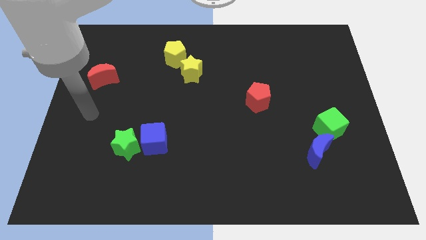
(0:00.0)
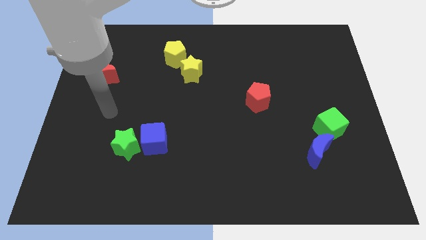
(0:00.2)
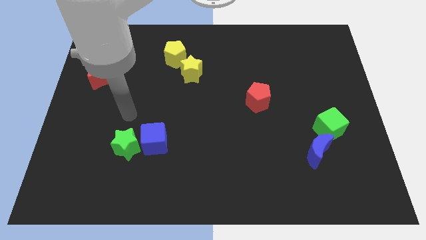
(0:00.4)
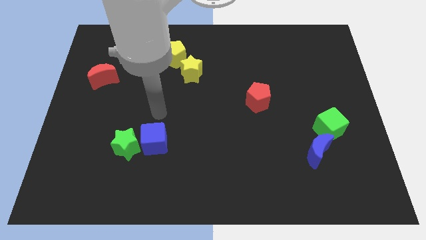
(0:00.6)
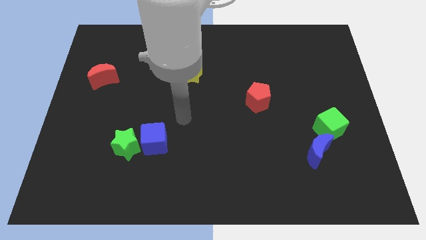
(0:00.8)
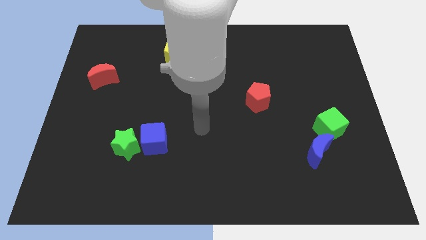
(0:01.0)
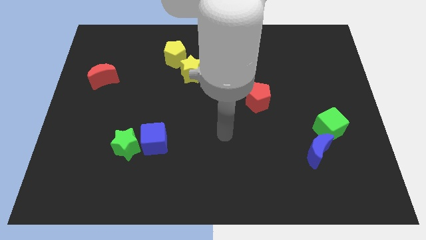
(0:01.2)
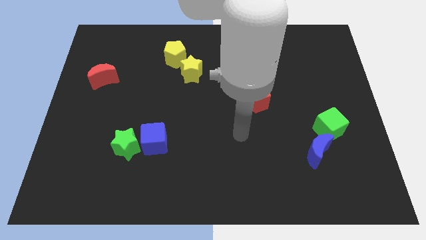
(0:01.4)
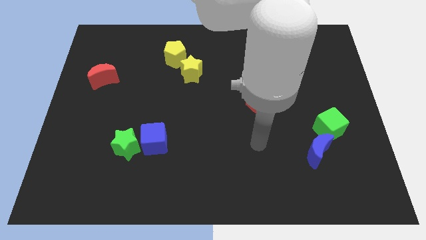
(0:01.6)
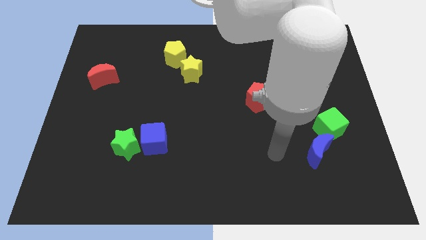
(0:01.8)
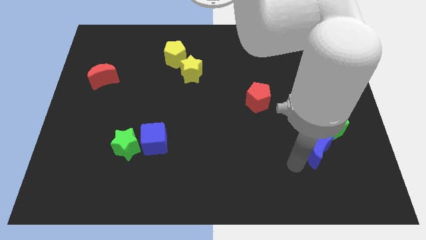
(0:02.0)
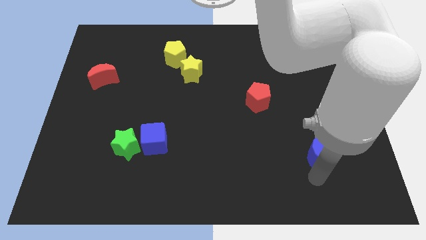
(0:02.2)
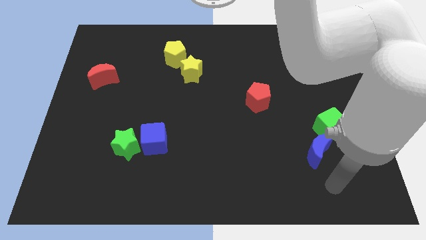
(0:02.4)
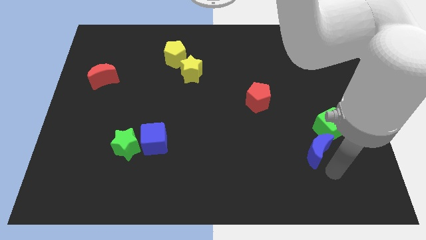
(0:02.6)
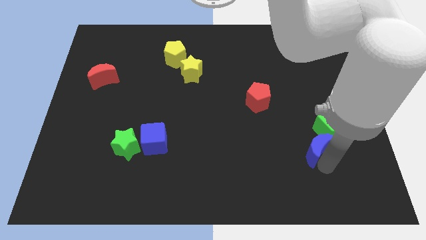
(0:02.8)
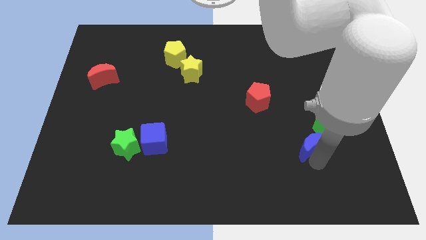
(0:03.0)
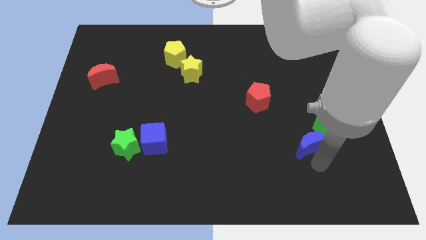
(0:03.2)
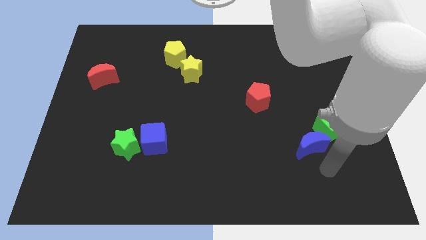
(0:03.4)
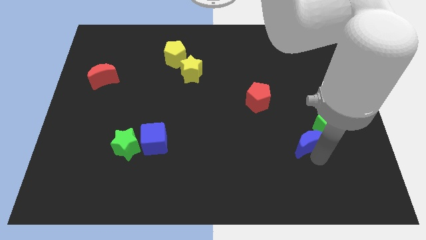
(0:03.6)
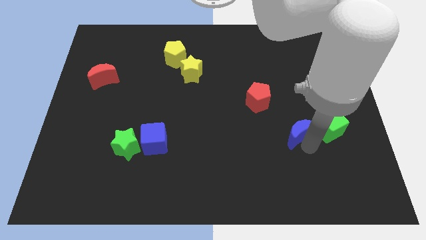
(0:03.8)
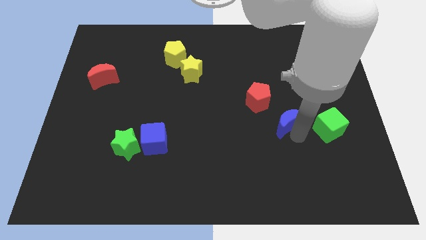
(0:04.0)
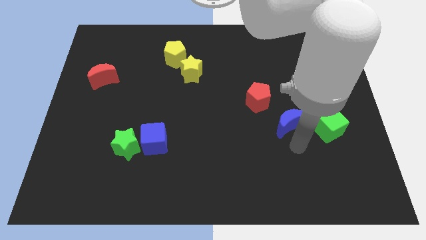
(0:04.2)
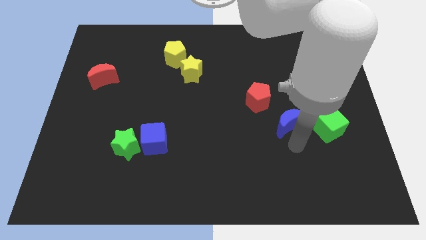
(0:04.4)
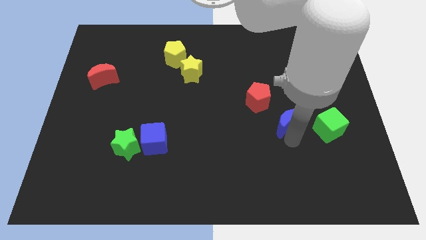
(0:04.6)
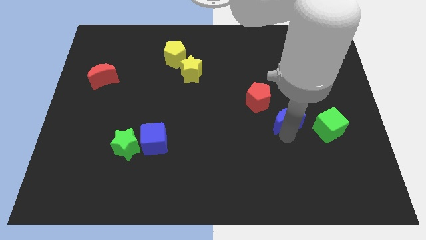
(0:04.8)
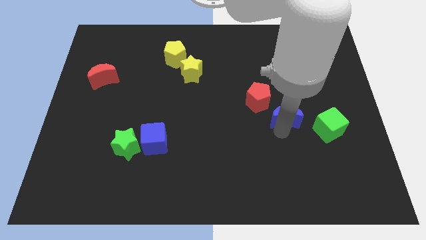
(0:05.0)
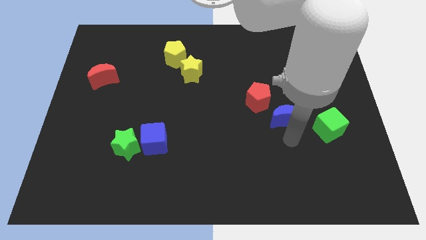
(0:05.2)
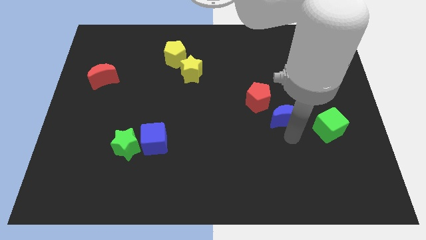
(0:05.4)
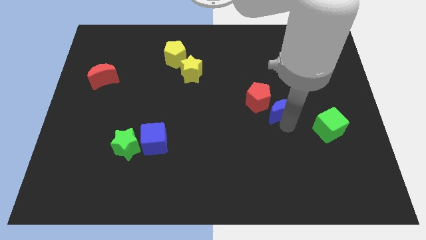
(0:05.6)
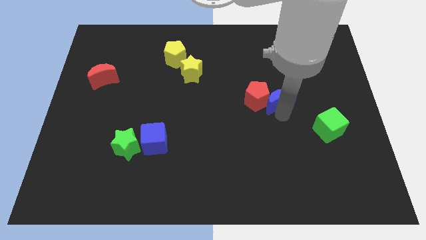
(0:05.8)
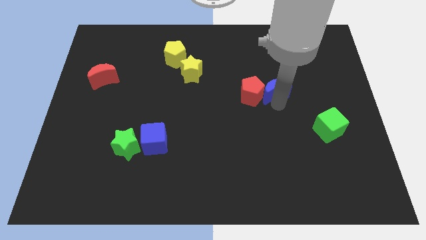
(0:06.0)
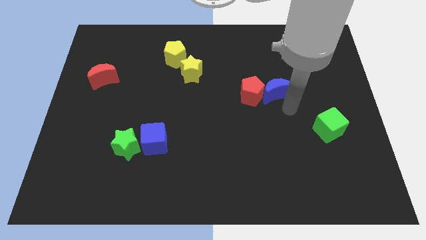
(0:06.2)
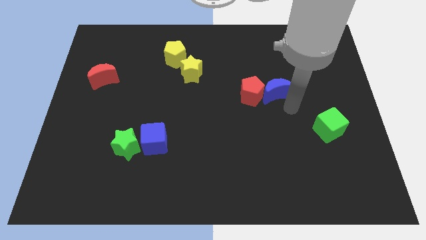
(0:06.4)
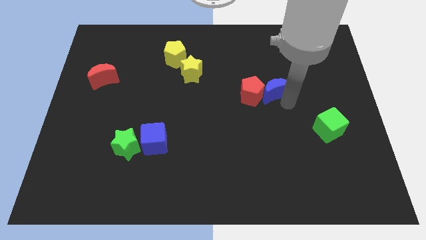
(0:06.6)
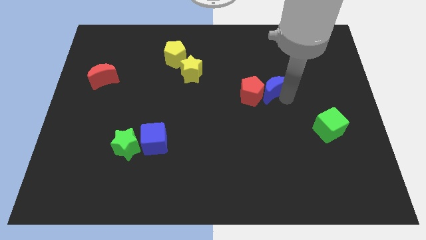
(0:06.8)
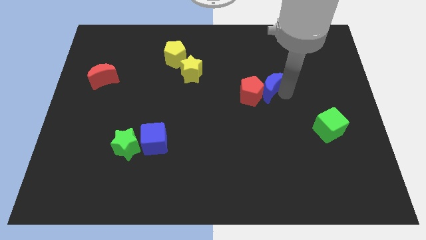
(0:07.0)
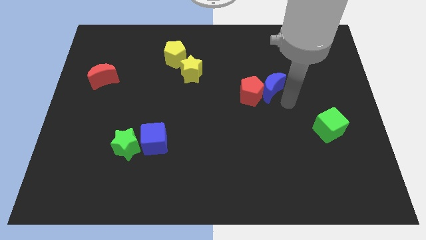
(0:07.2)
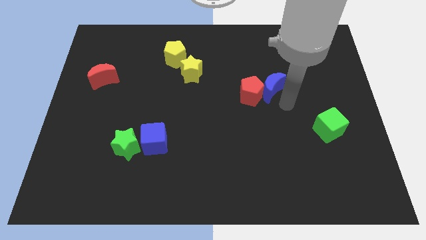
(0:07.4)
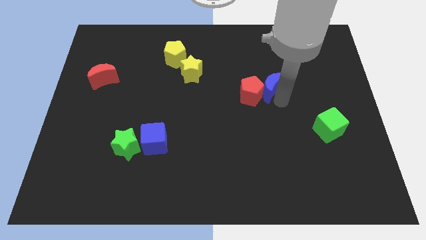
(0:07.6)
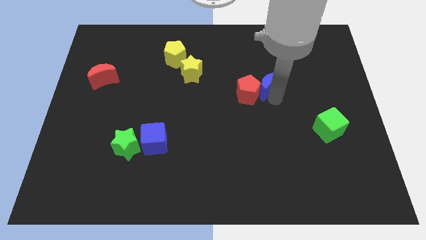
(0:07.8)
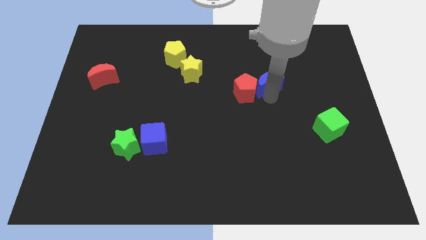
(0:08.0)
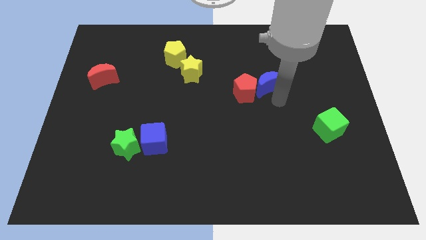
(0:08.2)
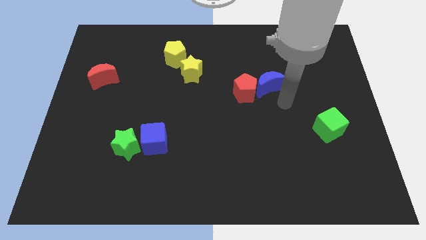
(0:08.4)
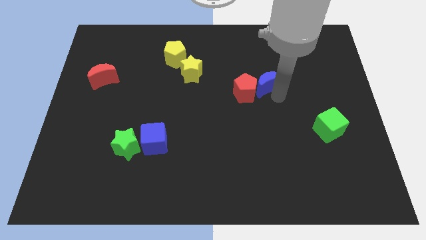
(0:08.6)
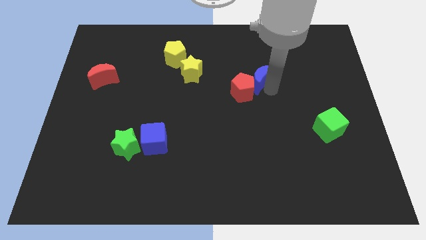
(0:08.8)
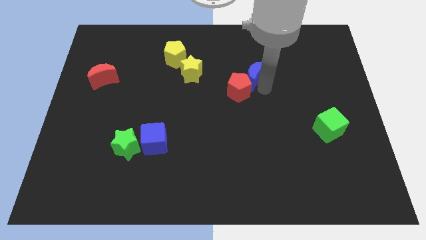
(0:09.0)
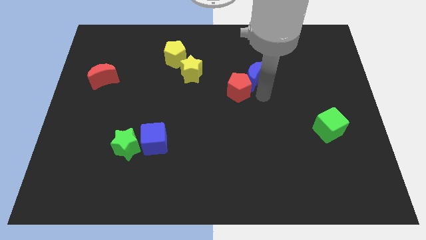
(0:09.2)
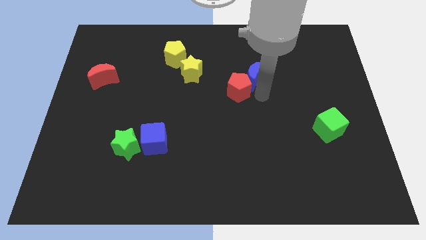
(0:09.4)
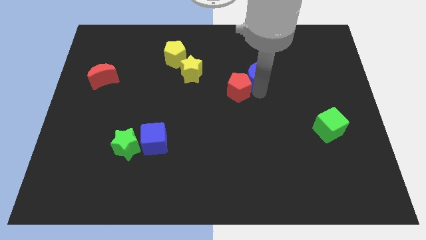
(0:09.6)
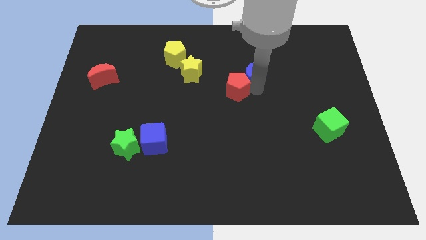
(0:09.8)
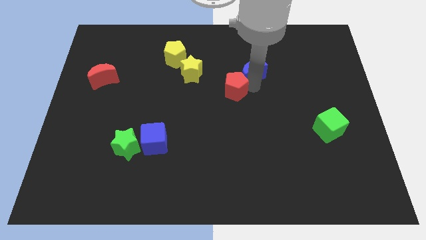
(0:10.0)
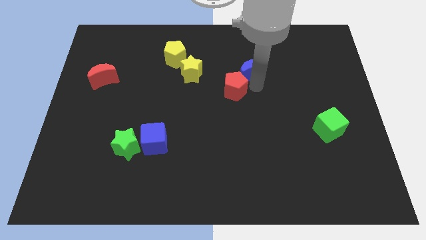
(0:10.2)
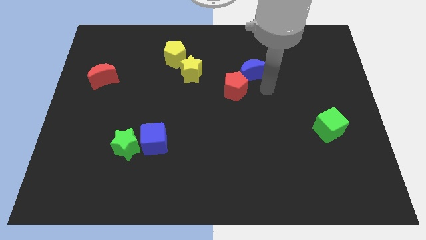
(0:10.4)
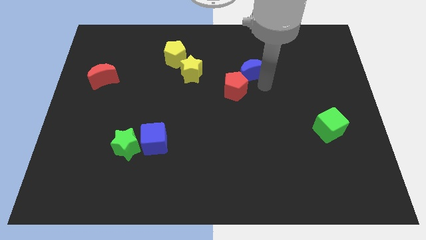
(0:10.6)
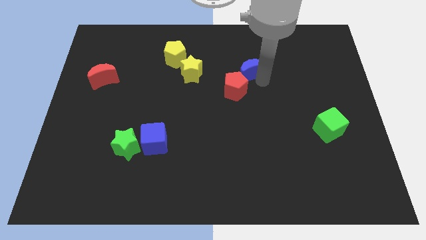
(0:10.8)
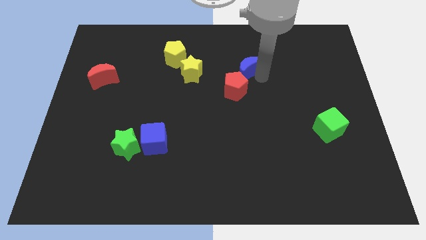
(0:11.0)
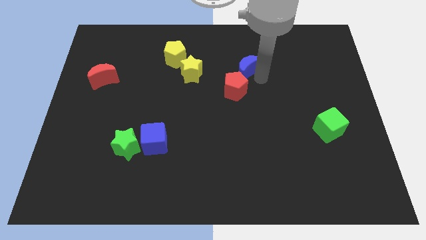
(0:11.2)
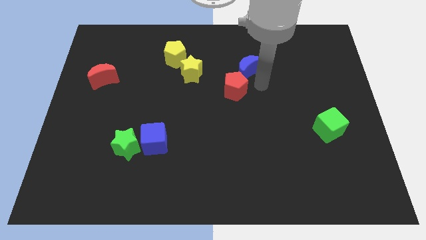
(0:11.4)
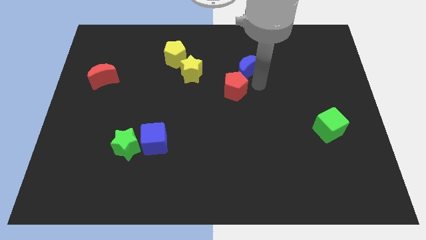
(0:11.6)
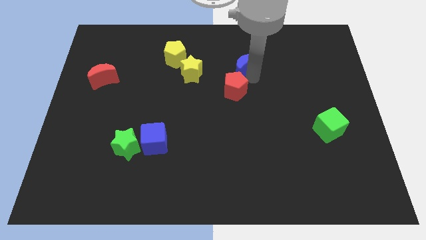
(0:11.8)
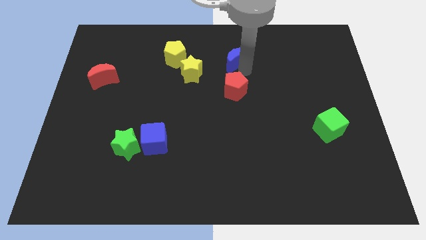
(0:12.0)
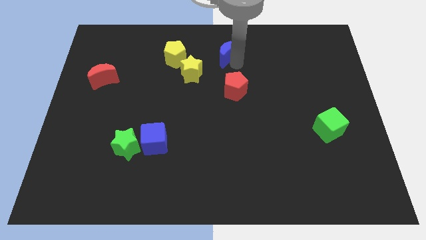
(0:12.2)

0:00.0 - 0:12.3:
put the blue moon to the top side
